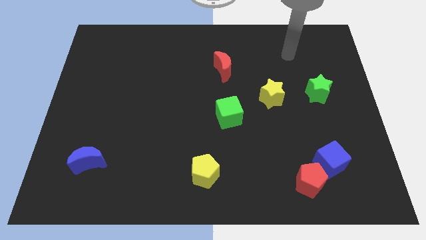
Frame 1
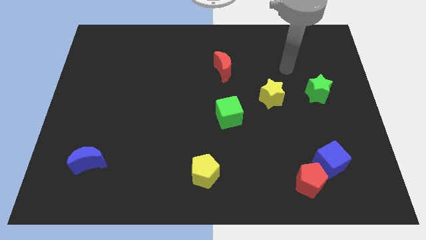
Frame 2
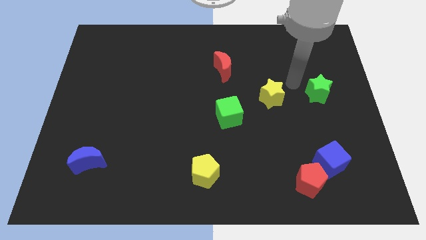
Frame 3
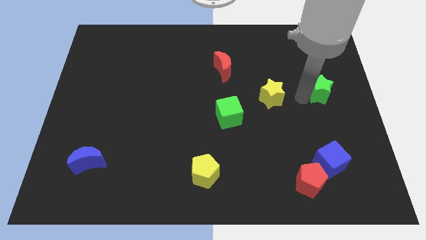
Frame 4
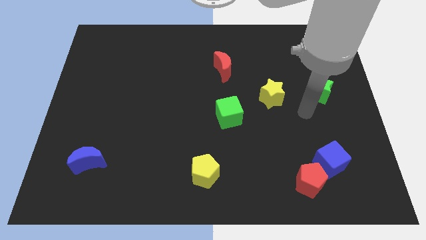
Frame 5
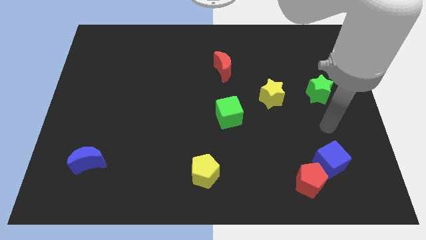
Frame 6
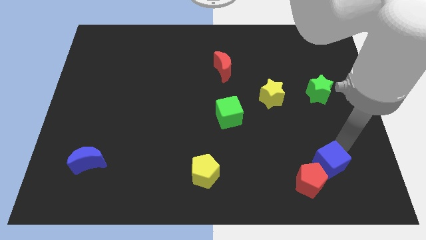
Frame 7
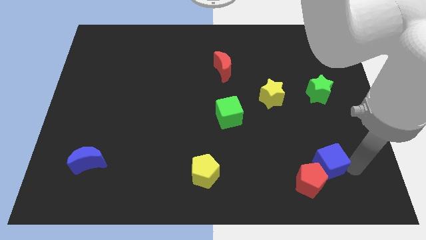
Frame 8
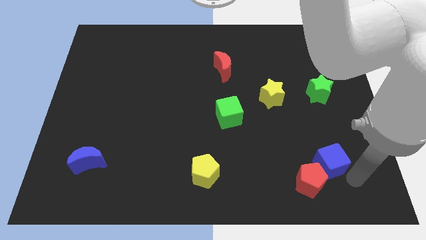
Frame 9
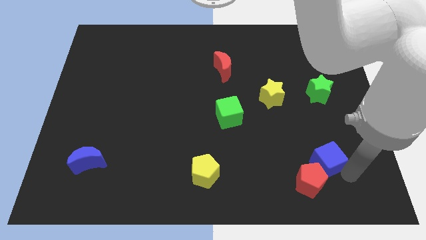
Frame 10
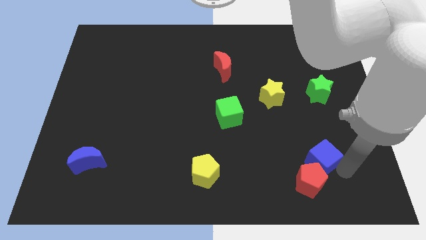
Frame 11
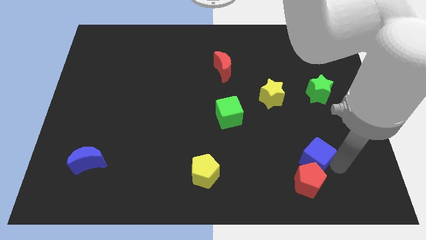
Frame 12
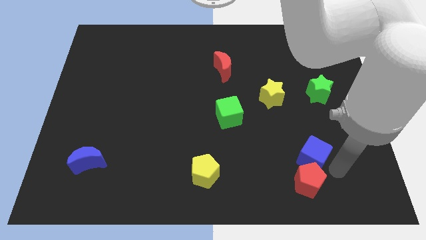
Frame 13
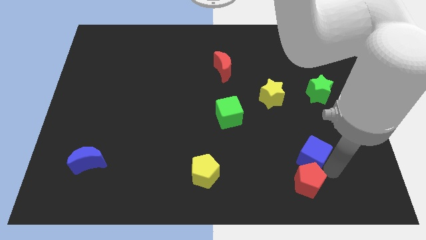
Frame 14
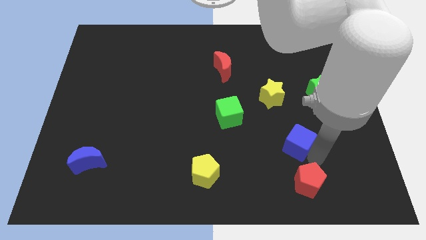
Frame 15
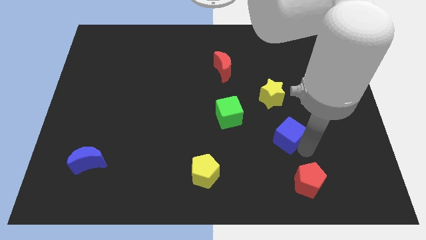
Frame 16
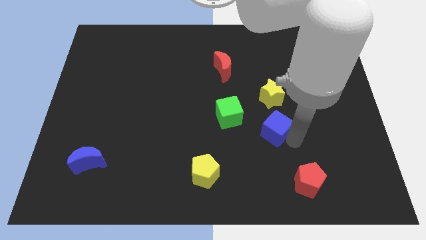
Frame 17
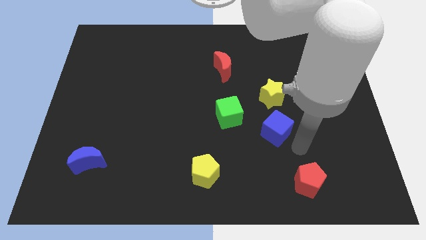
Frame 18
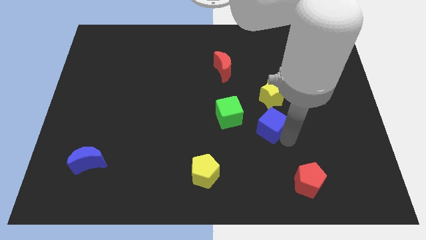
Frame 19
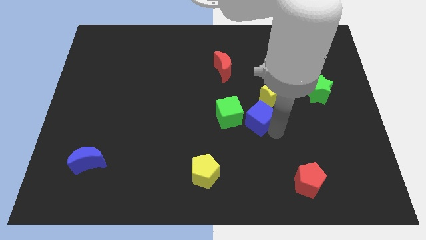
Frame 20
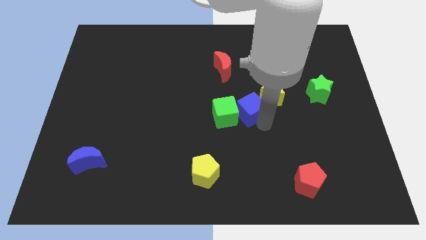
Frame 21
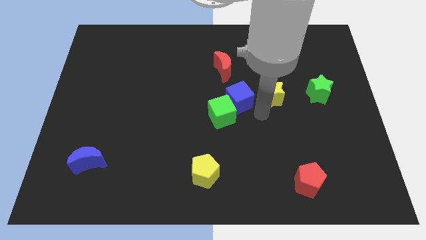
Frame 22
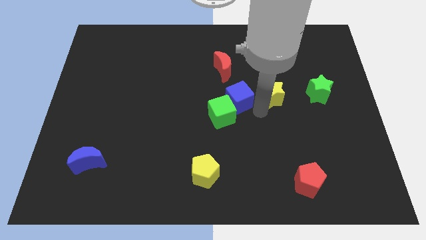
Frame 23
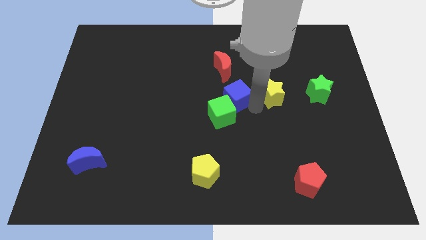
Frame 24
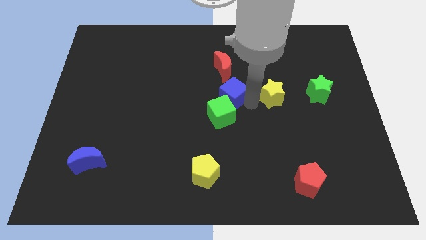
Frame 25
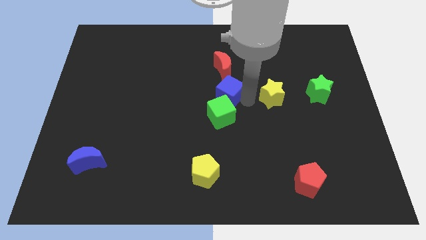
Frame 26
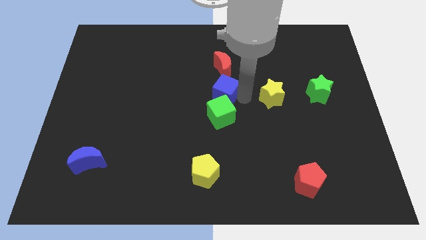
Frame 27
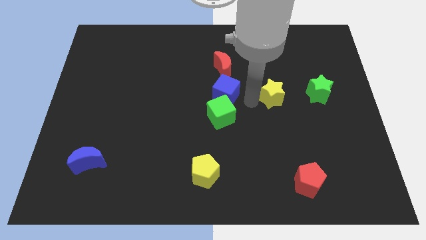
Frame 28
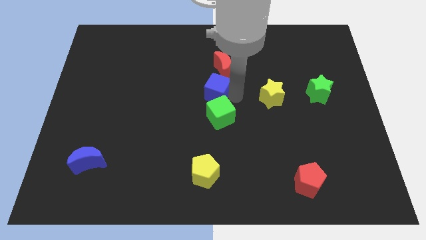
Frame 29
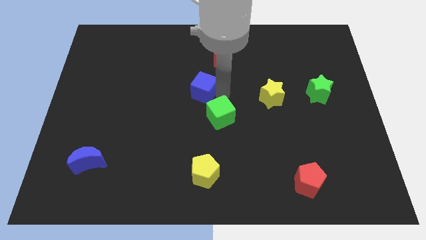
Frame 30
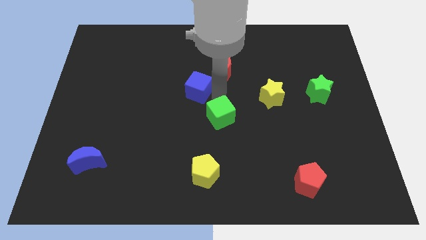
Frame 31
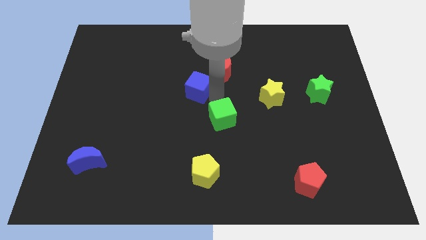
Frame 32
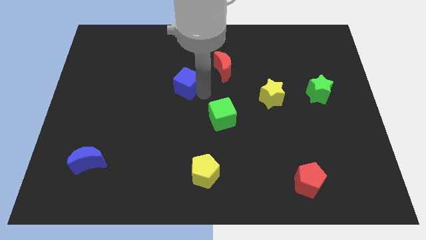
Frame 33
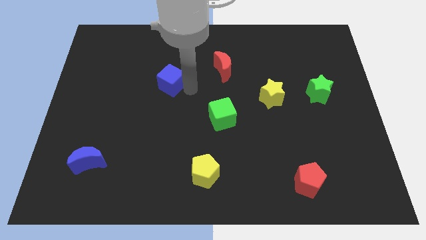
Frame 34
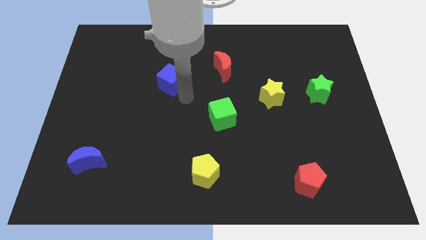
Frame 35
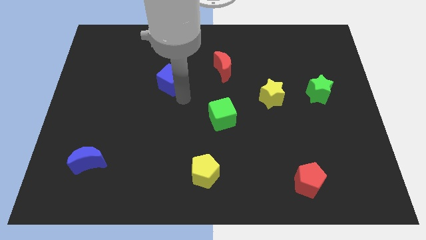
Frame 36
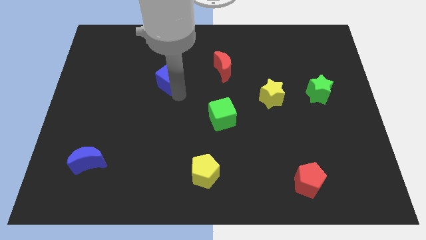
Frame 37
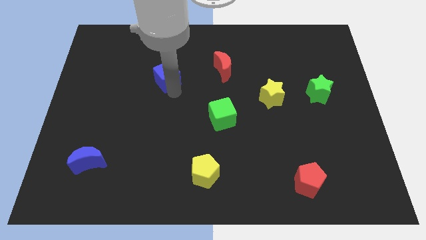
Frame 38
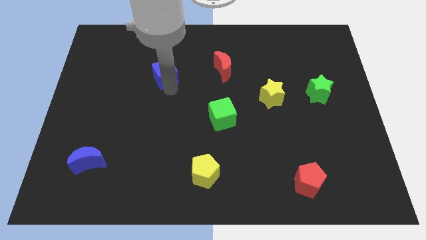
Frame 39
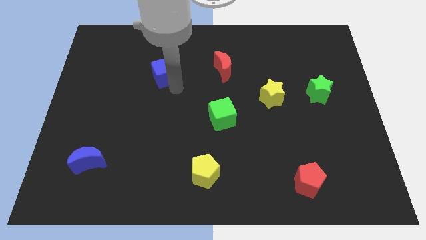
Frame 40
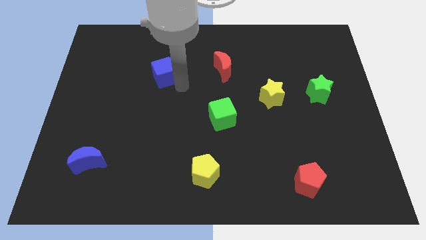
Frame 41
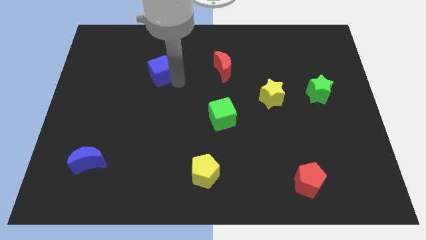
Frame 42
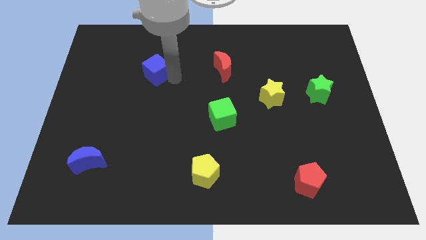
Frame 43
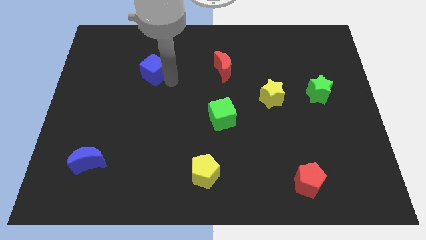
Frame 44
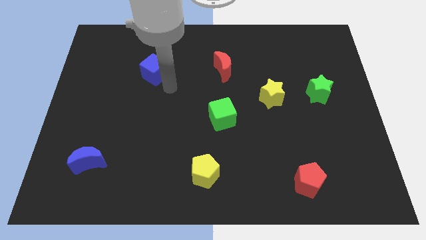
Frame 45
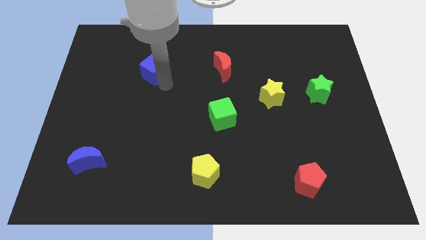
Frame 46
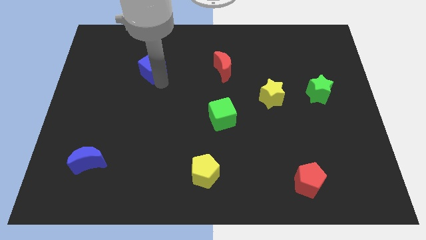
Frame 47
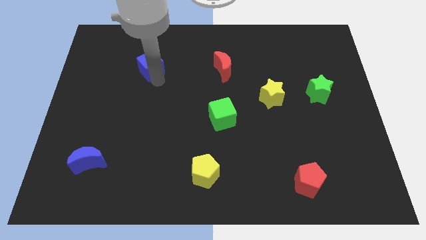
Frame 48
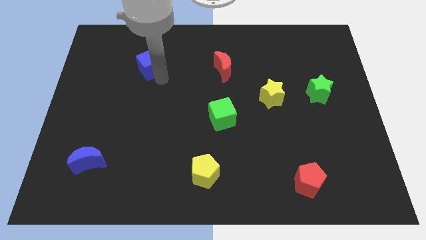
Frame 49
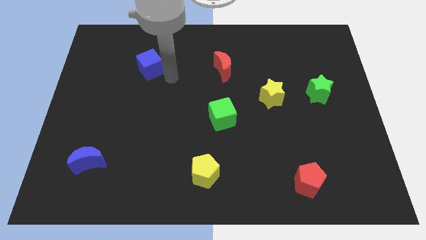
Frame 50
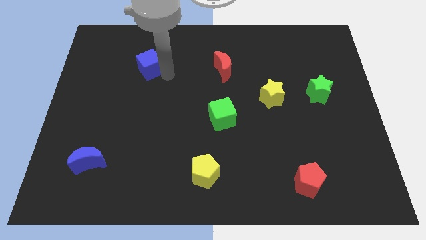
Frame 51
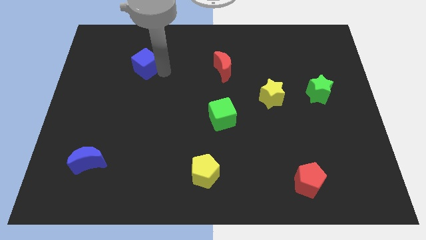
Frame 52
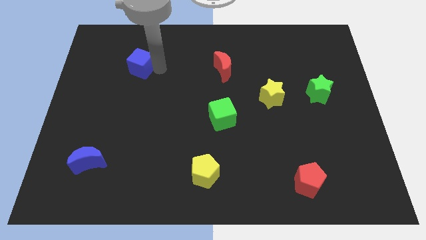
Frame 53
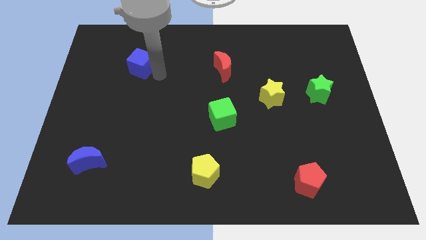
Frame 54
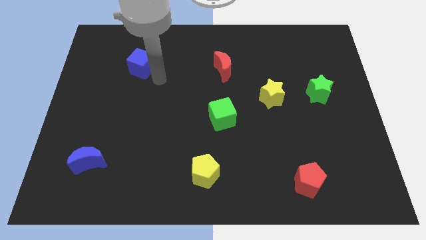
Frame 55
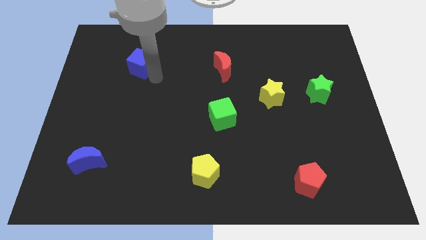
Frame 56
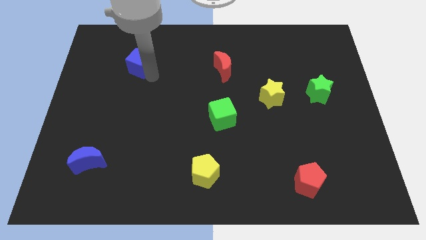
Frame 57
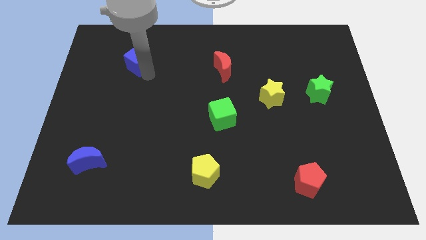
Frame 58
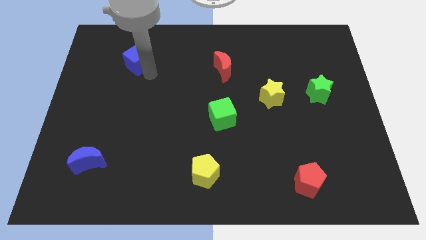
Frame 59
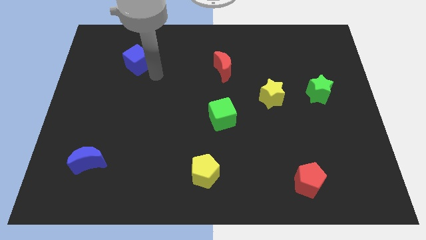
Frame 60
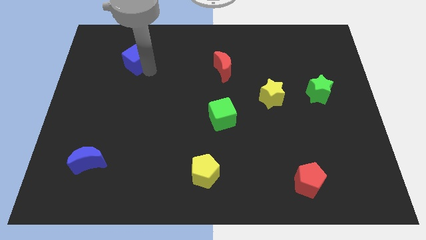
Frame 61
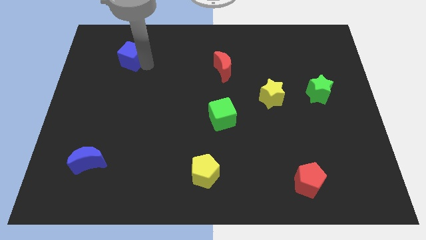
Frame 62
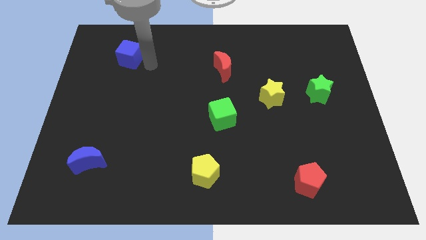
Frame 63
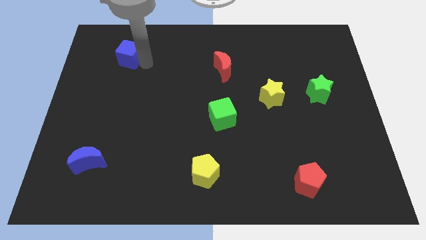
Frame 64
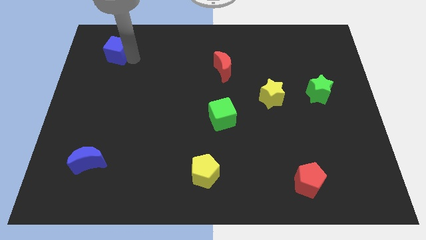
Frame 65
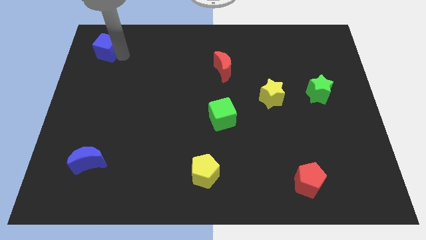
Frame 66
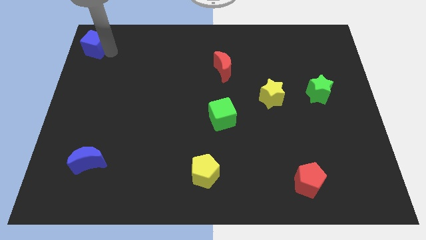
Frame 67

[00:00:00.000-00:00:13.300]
slide the blue cube to the upper left corner

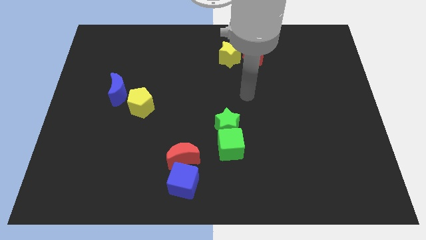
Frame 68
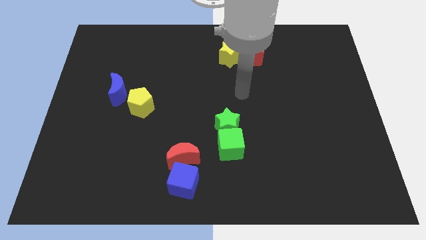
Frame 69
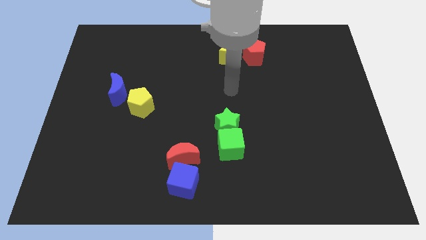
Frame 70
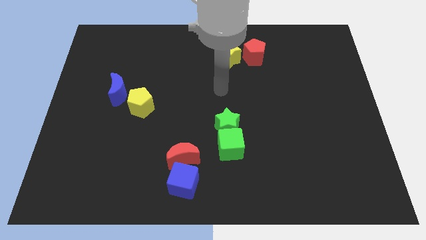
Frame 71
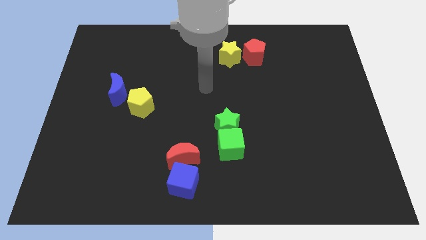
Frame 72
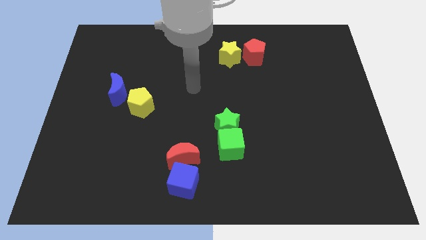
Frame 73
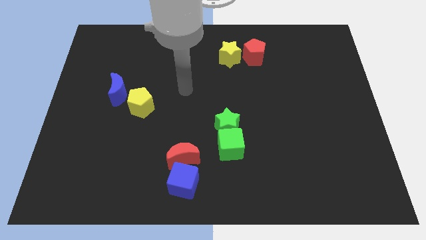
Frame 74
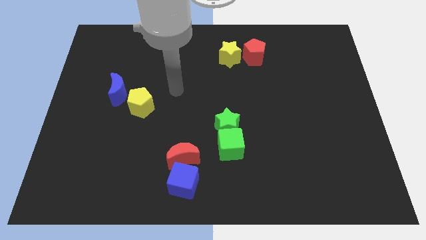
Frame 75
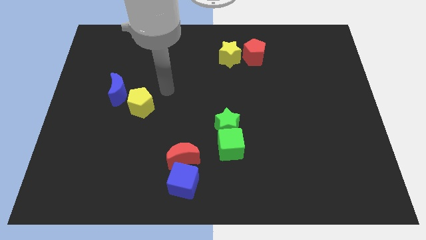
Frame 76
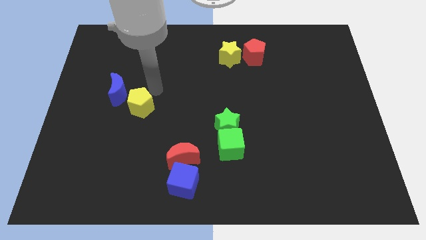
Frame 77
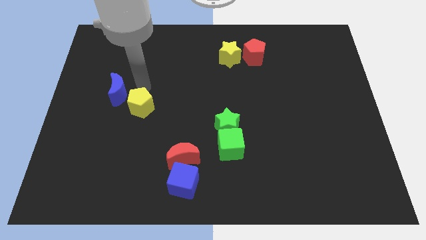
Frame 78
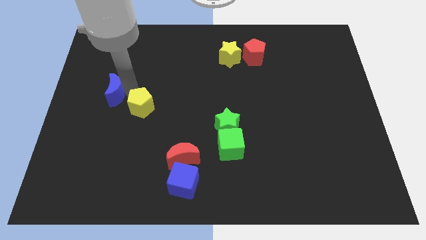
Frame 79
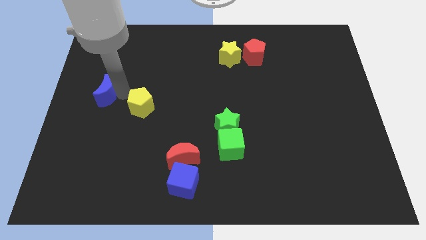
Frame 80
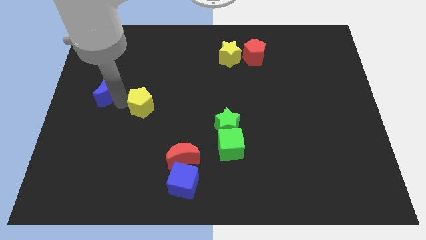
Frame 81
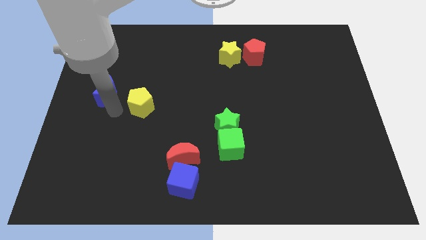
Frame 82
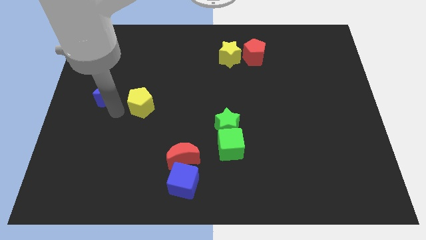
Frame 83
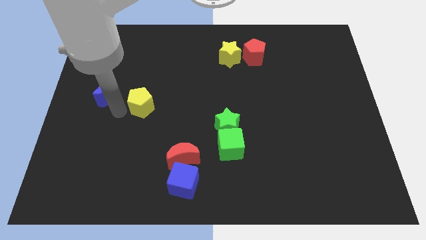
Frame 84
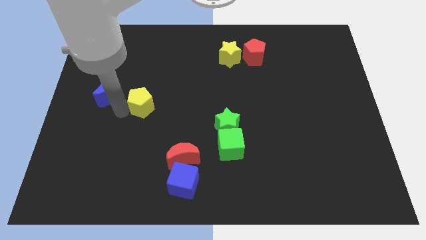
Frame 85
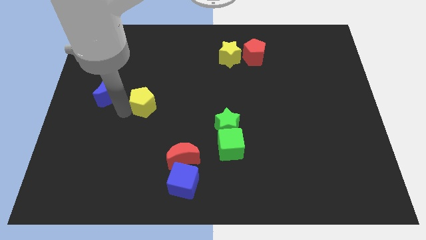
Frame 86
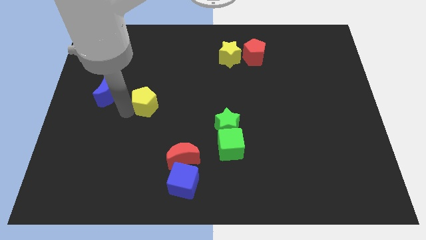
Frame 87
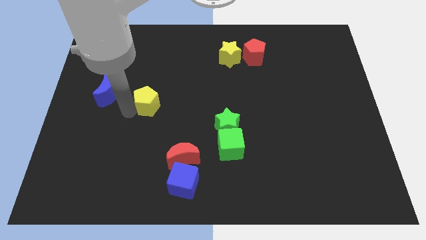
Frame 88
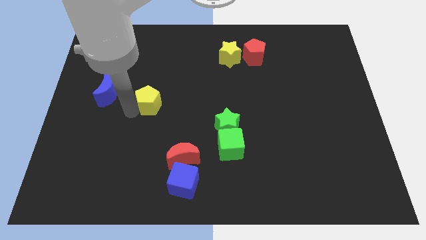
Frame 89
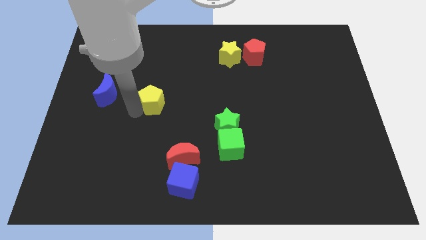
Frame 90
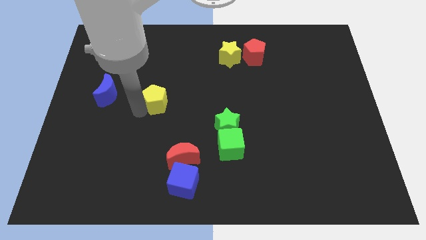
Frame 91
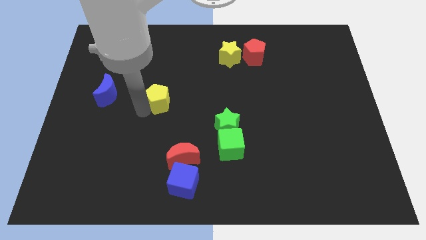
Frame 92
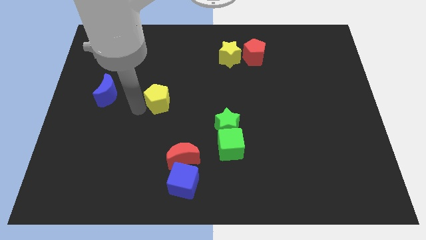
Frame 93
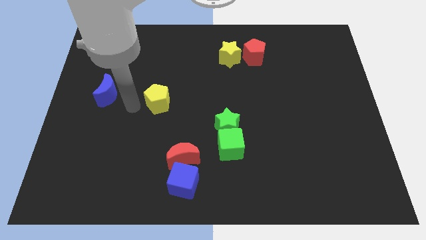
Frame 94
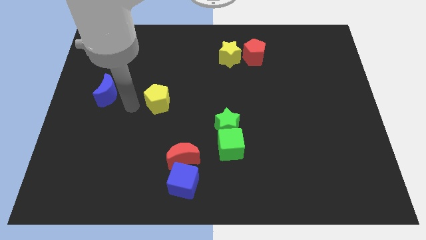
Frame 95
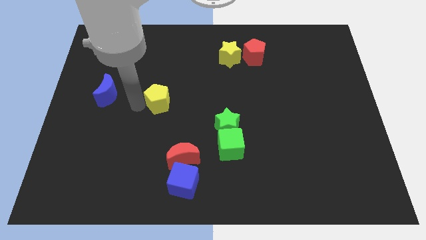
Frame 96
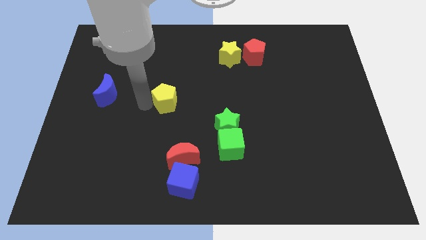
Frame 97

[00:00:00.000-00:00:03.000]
slide the yellow pentagon to the center of the board
